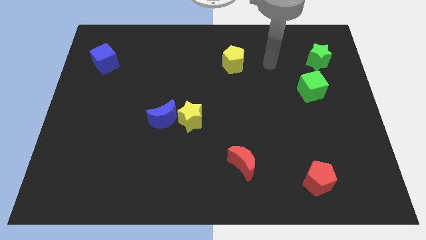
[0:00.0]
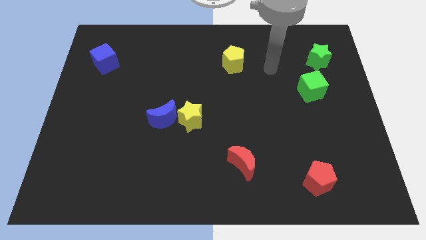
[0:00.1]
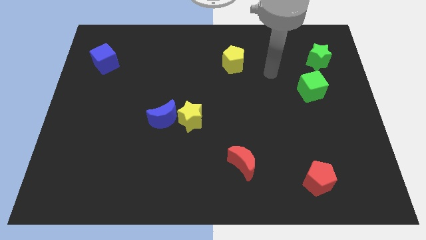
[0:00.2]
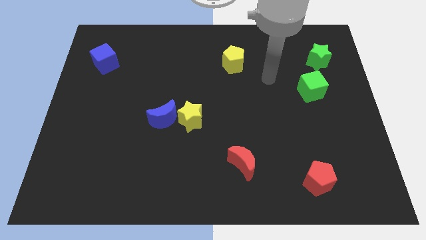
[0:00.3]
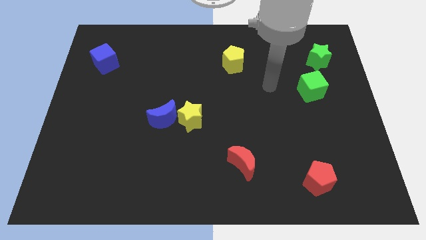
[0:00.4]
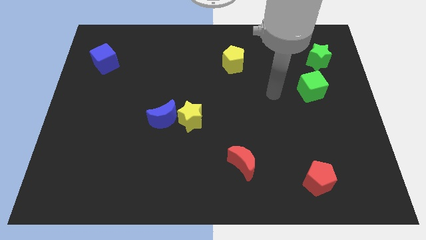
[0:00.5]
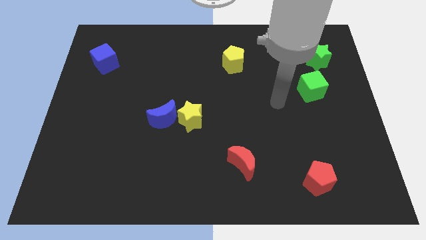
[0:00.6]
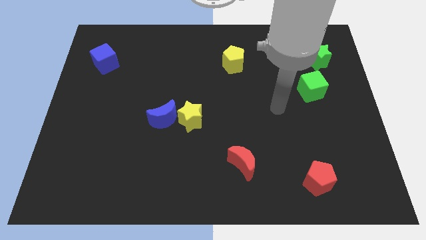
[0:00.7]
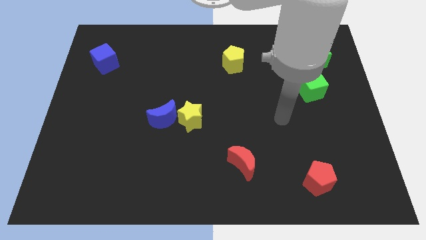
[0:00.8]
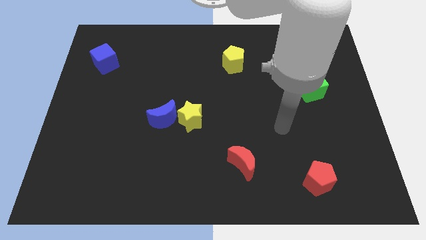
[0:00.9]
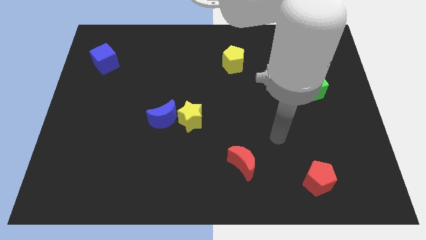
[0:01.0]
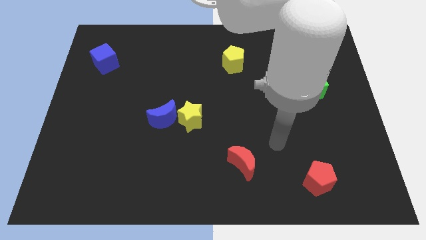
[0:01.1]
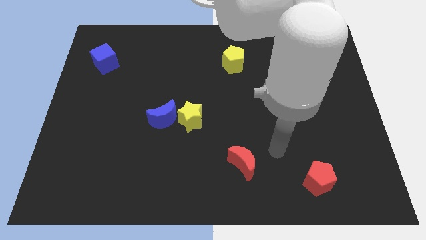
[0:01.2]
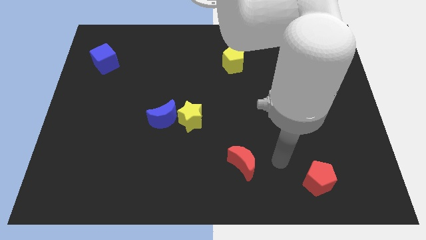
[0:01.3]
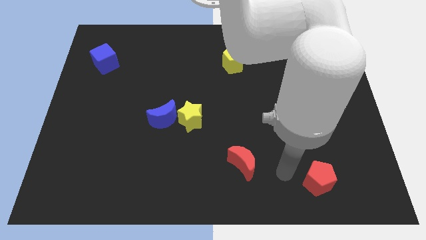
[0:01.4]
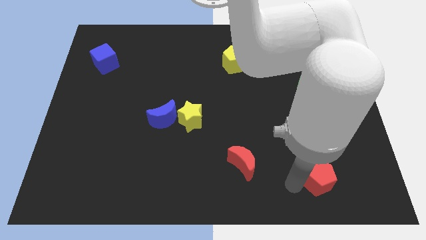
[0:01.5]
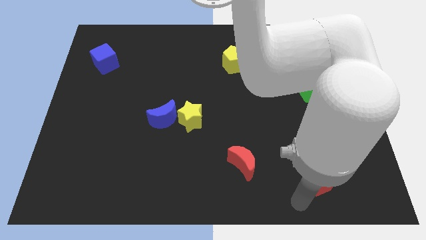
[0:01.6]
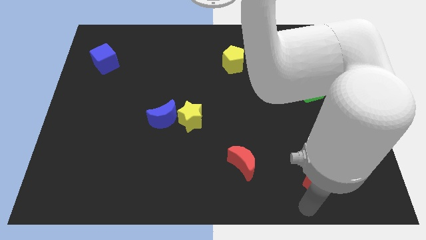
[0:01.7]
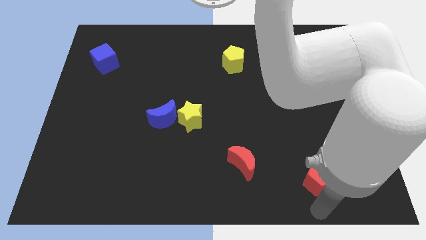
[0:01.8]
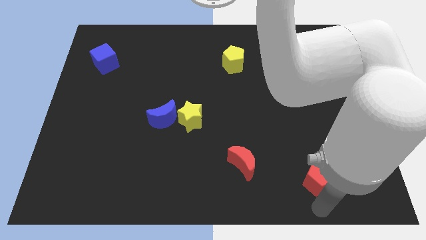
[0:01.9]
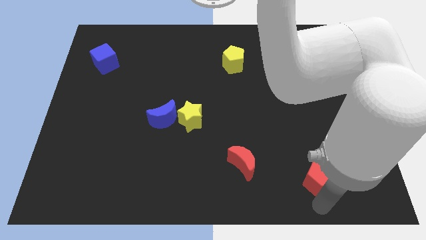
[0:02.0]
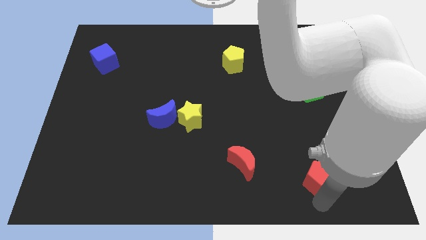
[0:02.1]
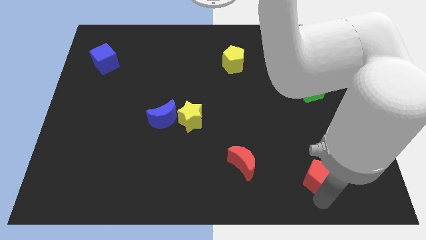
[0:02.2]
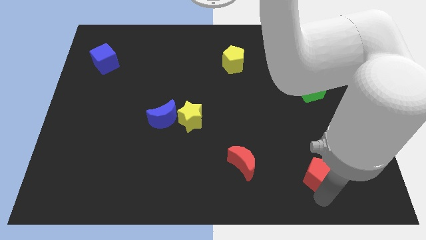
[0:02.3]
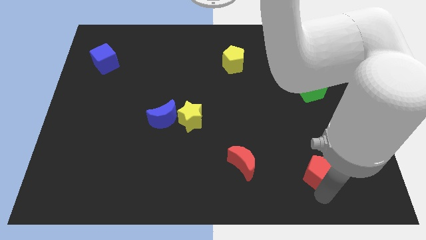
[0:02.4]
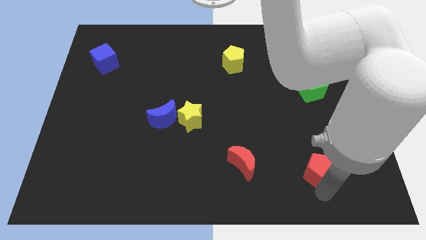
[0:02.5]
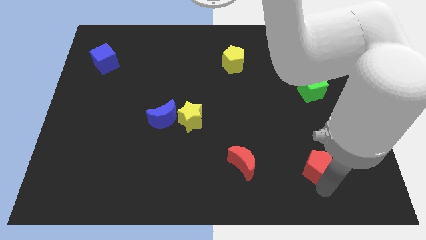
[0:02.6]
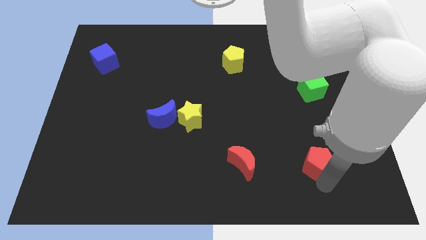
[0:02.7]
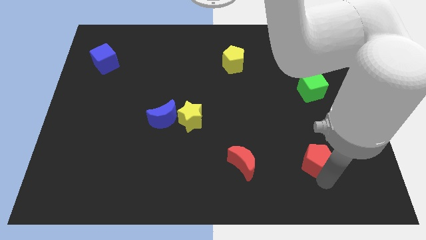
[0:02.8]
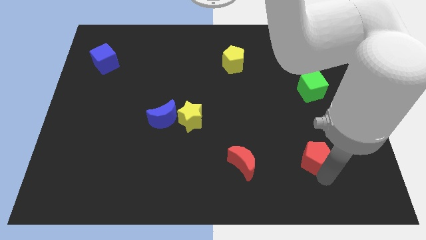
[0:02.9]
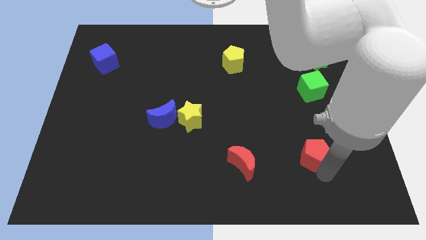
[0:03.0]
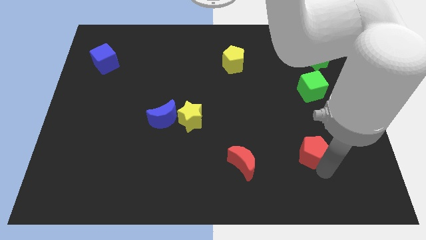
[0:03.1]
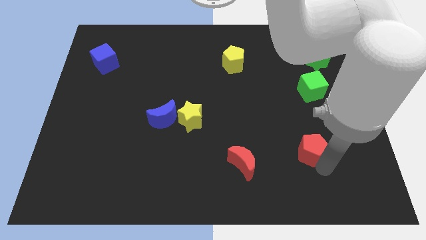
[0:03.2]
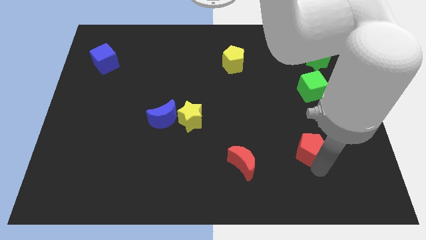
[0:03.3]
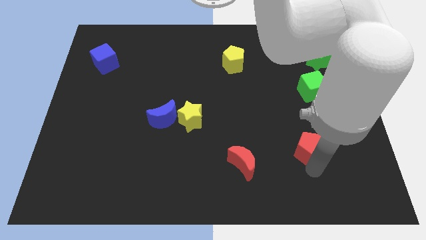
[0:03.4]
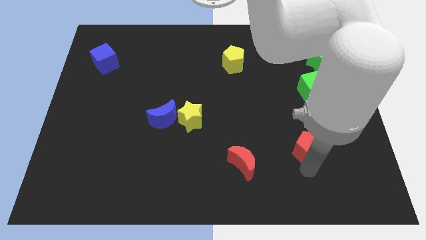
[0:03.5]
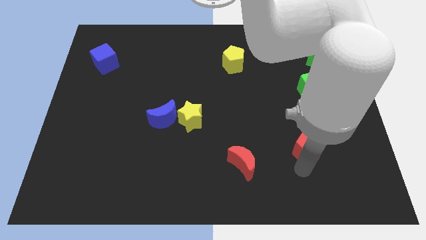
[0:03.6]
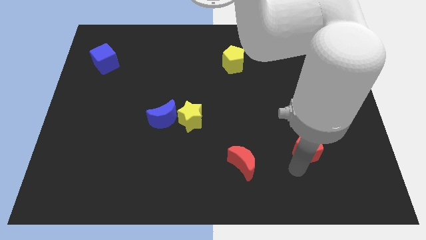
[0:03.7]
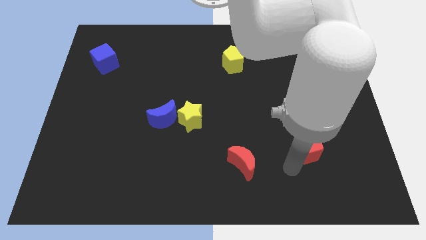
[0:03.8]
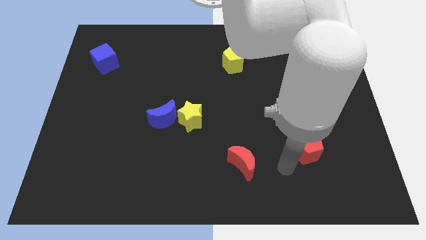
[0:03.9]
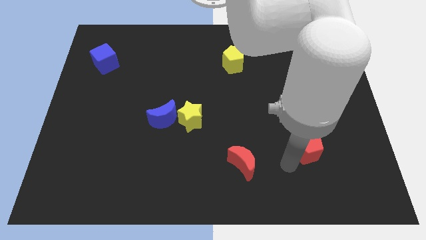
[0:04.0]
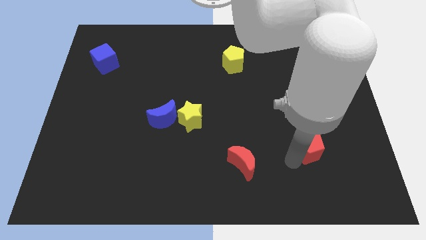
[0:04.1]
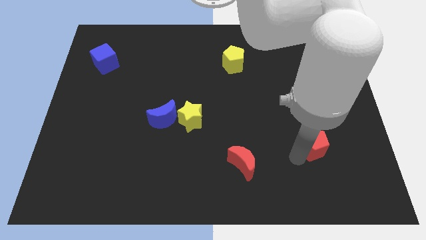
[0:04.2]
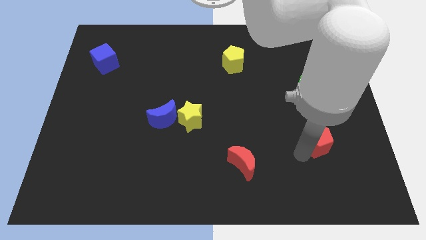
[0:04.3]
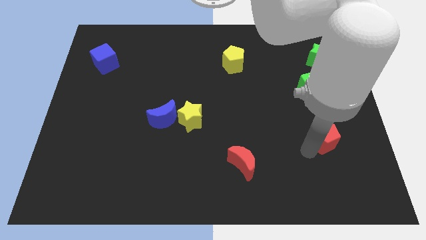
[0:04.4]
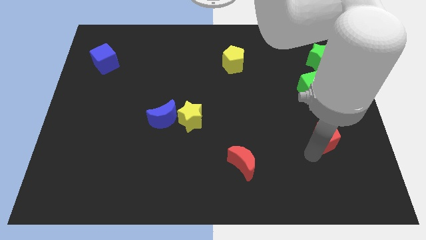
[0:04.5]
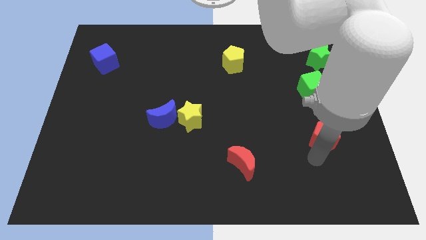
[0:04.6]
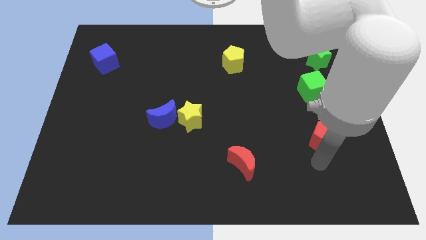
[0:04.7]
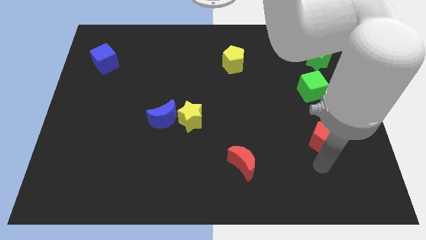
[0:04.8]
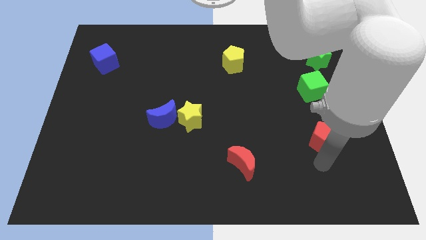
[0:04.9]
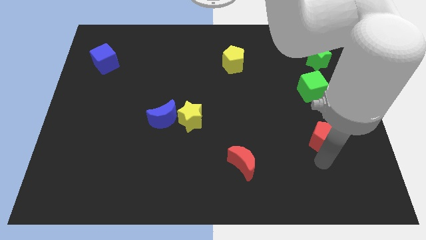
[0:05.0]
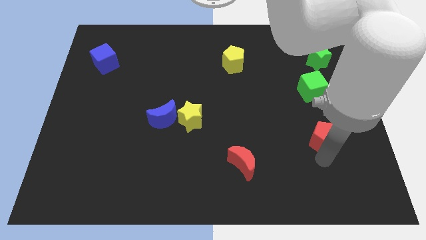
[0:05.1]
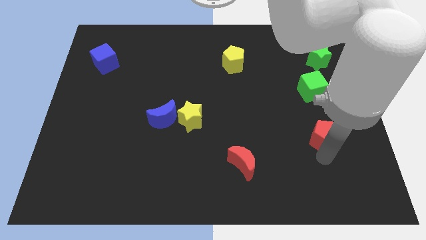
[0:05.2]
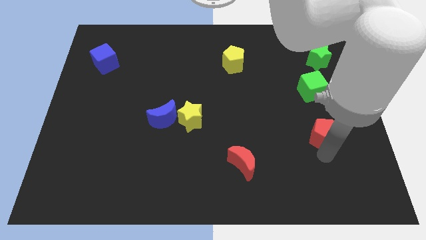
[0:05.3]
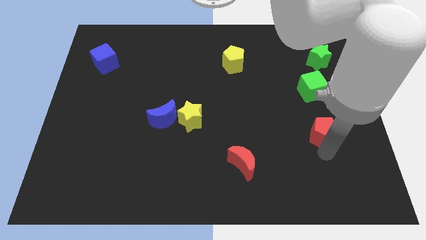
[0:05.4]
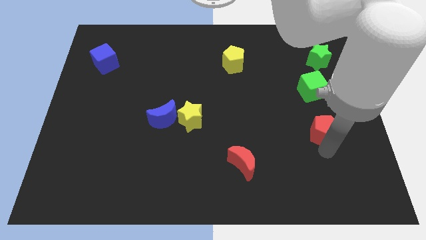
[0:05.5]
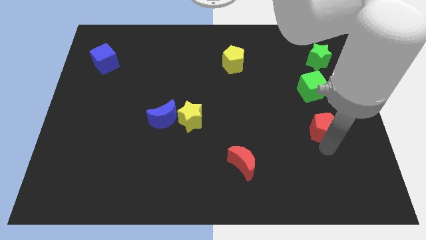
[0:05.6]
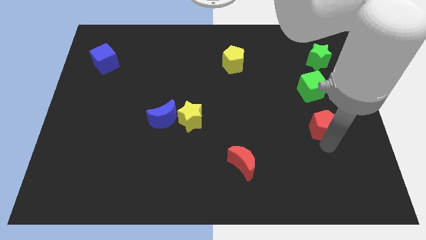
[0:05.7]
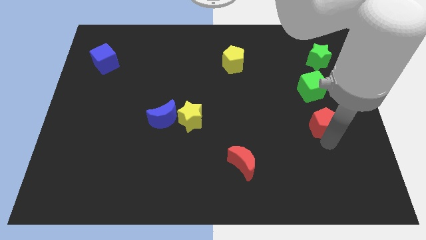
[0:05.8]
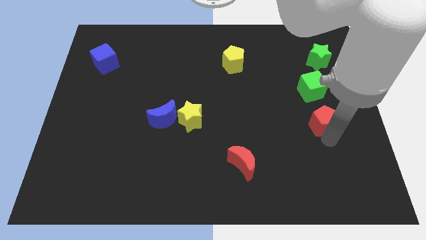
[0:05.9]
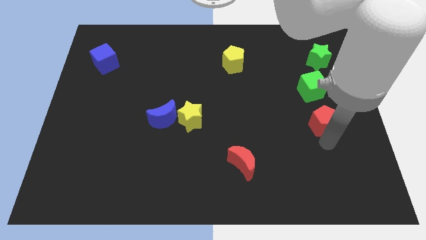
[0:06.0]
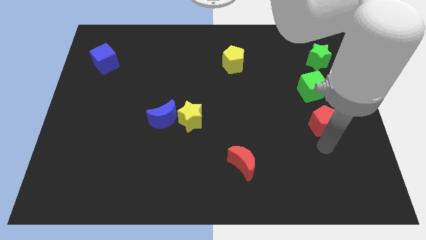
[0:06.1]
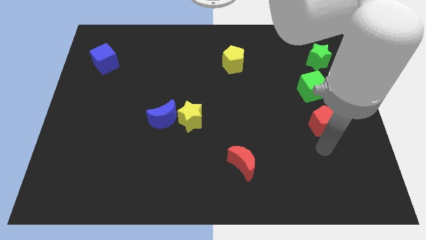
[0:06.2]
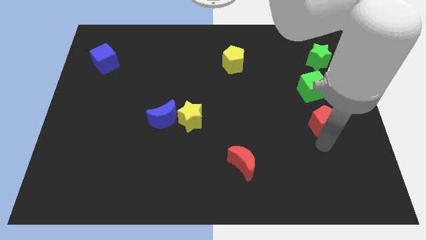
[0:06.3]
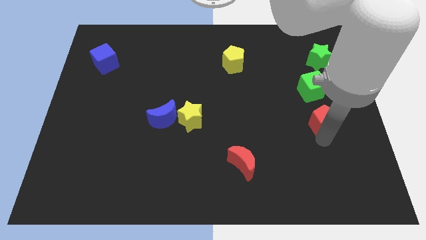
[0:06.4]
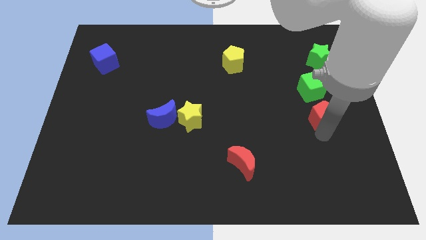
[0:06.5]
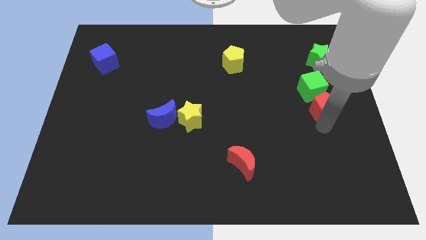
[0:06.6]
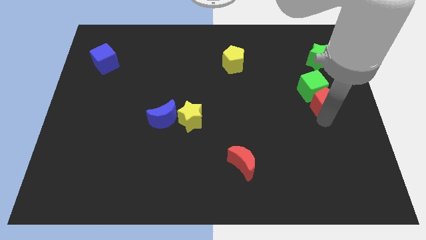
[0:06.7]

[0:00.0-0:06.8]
push the red pentagon towards the green cube

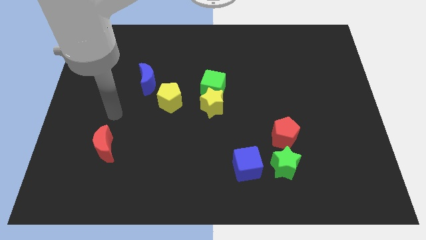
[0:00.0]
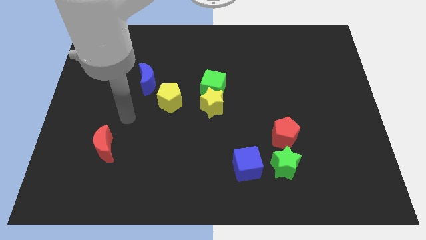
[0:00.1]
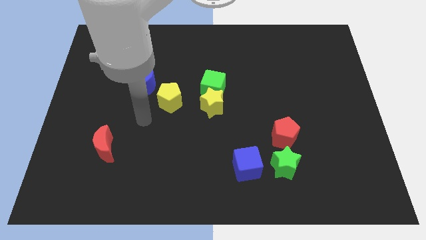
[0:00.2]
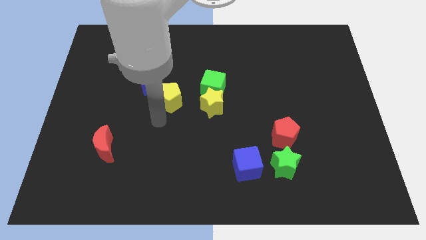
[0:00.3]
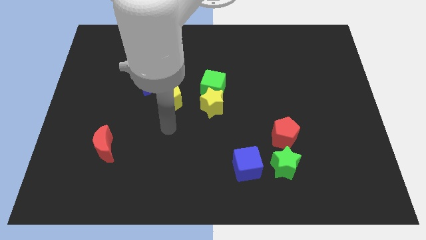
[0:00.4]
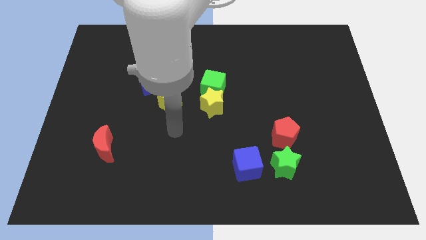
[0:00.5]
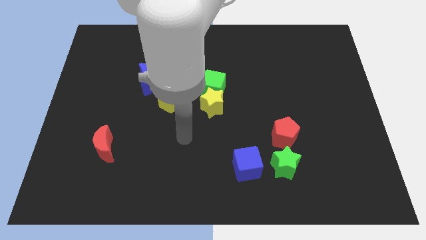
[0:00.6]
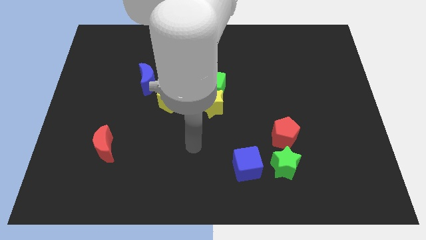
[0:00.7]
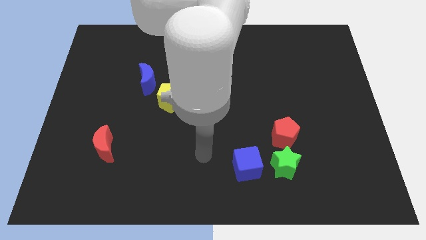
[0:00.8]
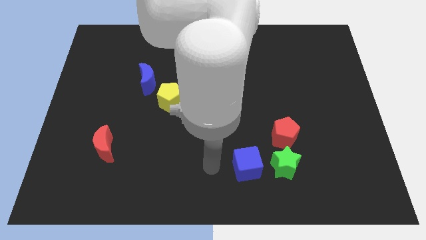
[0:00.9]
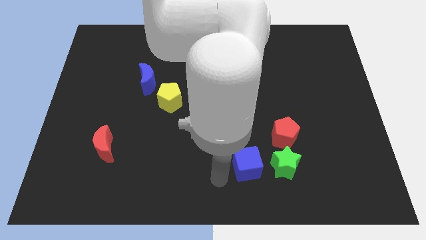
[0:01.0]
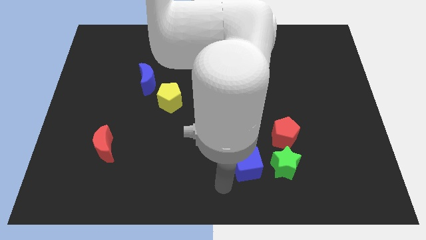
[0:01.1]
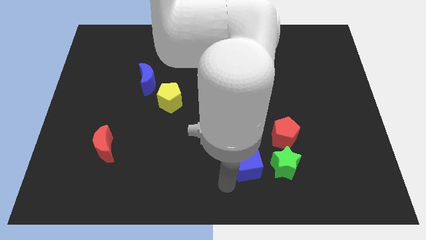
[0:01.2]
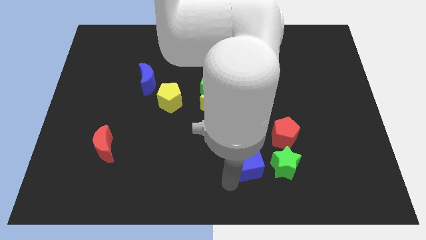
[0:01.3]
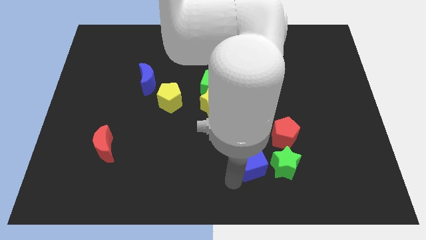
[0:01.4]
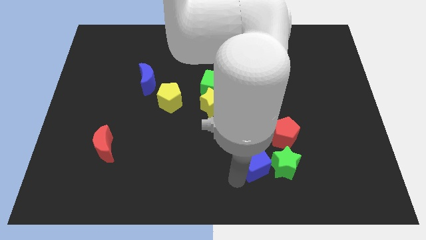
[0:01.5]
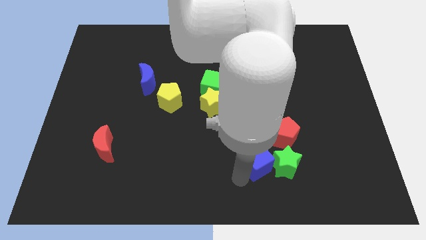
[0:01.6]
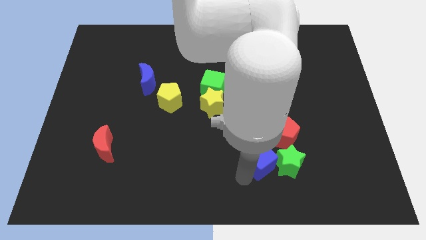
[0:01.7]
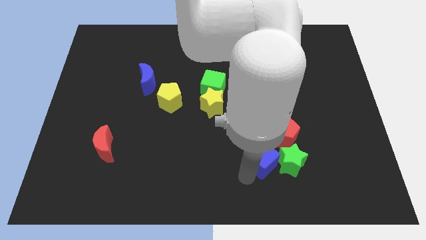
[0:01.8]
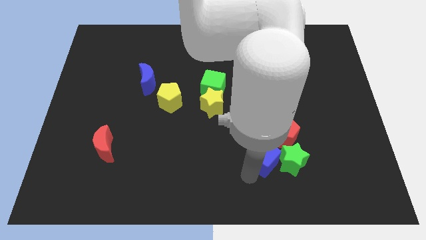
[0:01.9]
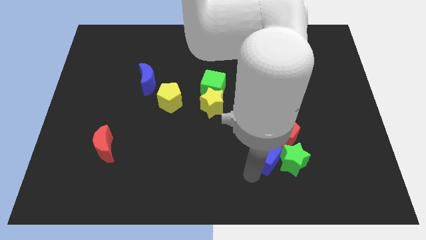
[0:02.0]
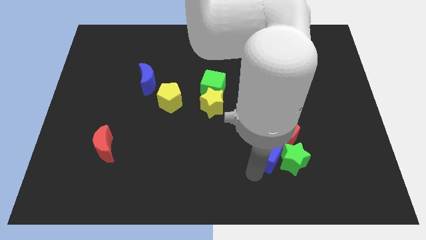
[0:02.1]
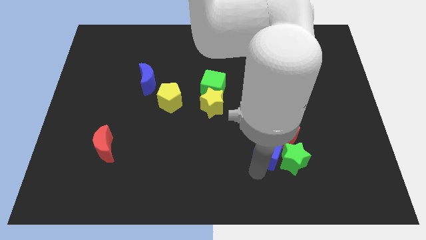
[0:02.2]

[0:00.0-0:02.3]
put the blue cube close to the red pentagon
